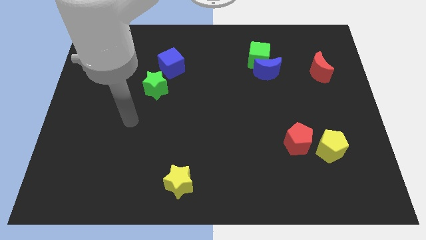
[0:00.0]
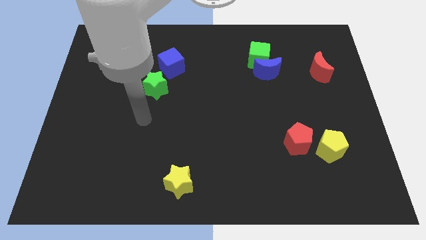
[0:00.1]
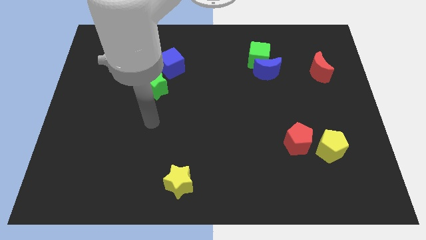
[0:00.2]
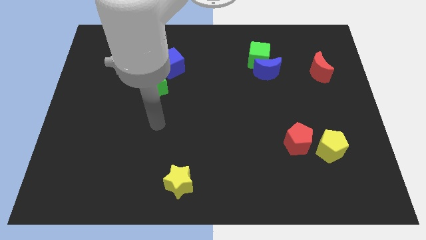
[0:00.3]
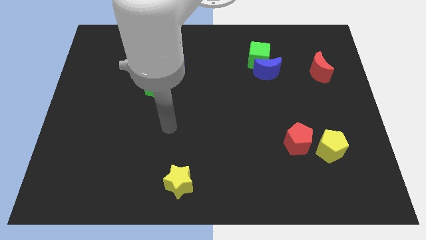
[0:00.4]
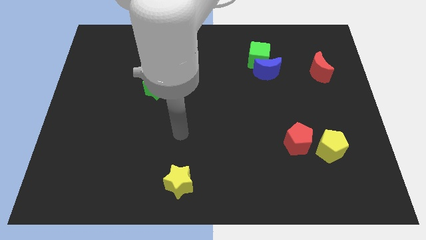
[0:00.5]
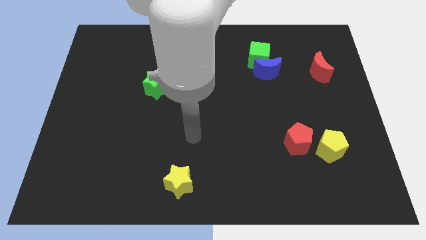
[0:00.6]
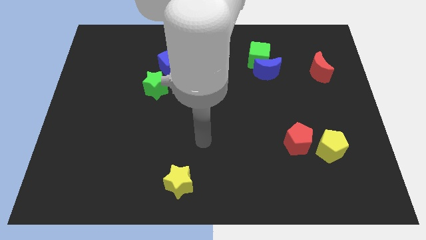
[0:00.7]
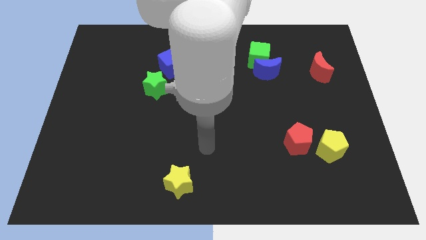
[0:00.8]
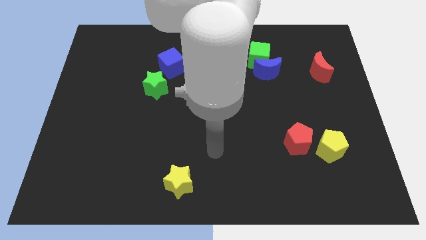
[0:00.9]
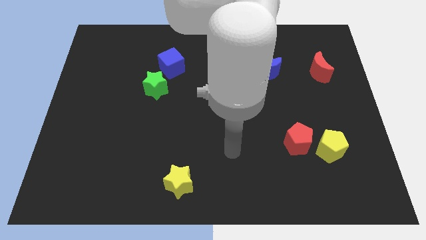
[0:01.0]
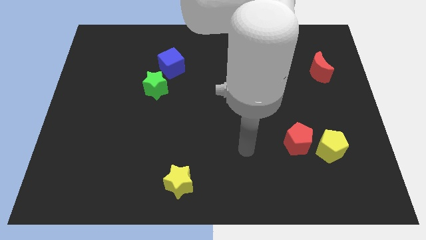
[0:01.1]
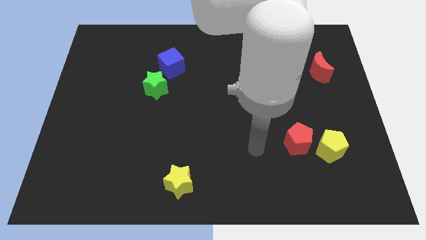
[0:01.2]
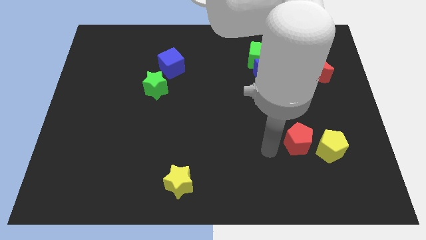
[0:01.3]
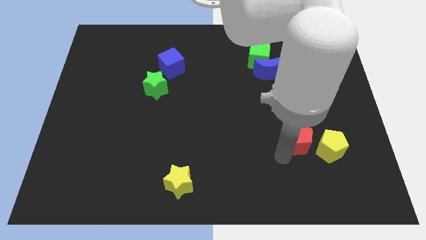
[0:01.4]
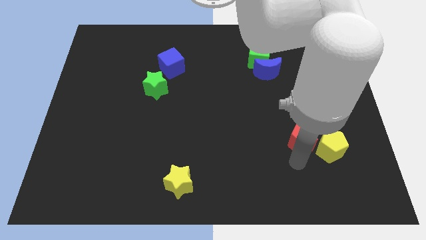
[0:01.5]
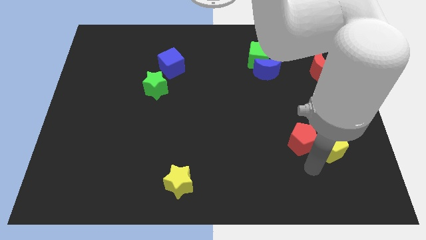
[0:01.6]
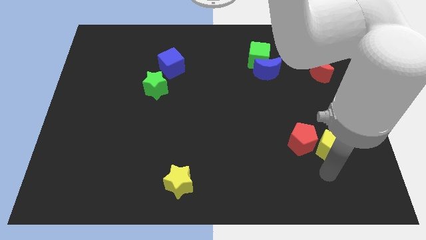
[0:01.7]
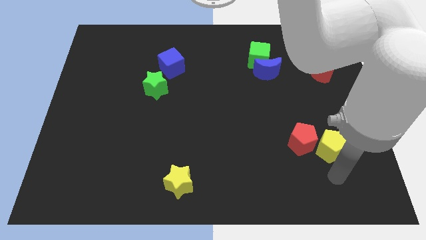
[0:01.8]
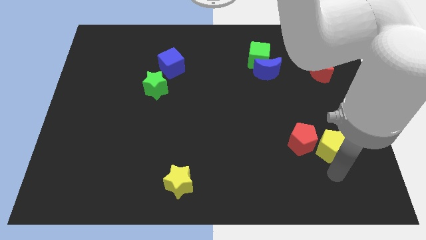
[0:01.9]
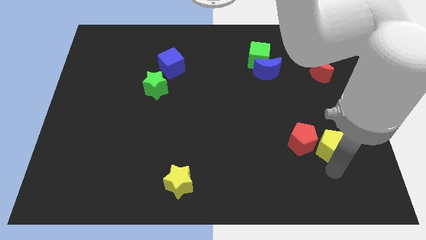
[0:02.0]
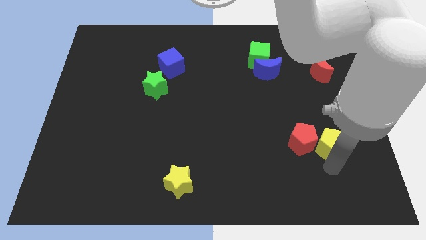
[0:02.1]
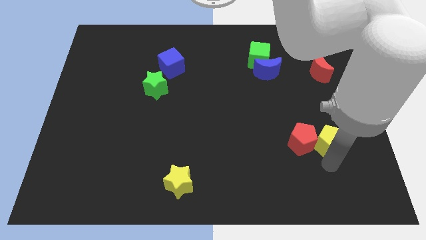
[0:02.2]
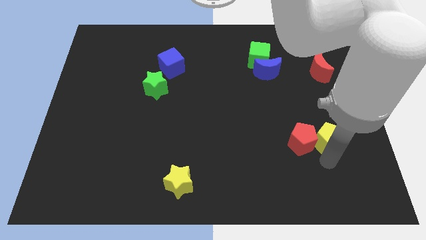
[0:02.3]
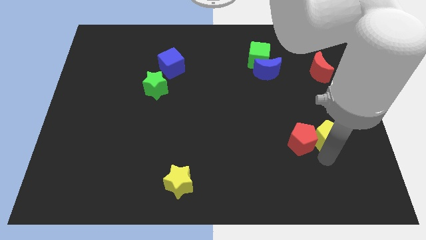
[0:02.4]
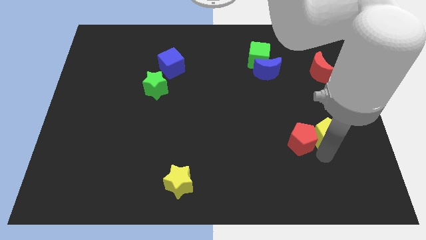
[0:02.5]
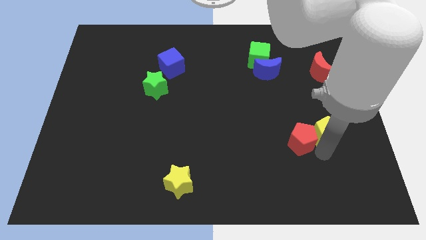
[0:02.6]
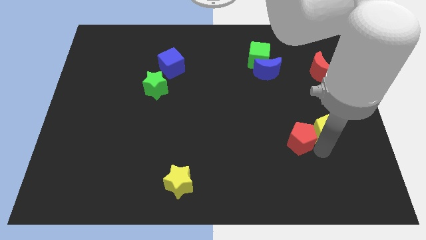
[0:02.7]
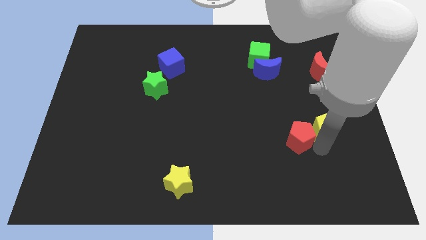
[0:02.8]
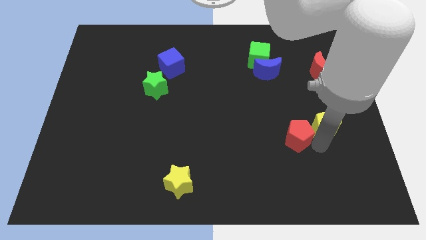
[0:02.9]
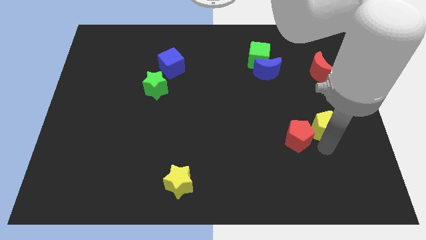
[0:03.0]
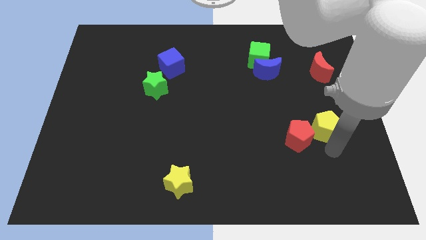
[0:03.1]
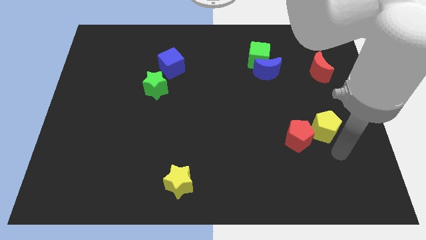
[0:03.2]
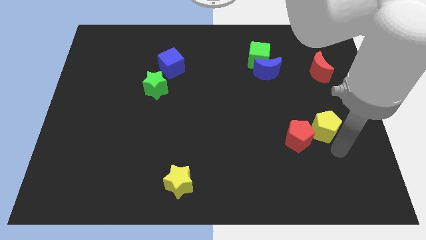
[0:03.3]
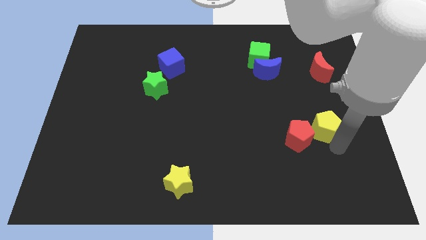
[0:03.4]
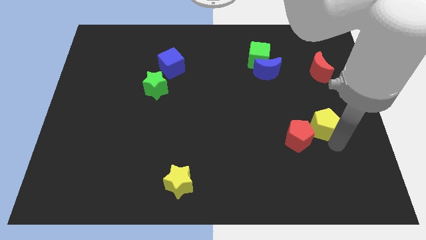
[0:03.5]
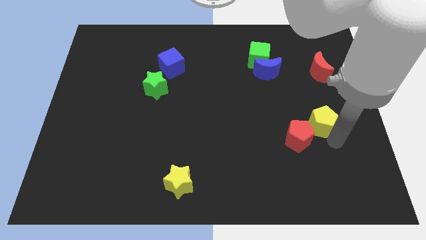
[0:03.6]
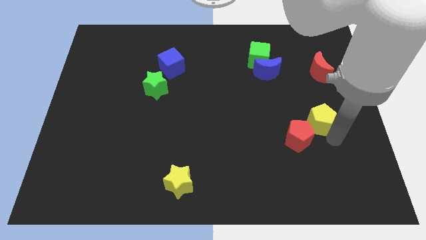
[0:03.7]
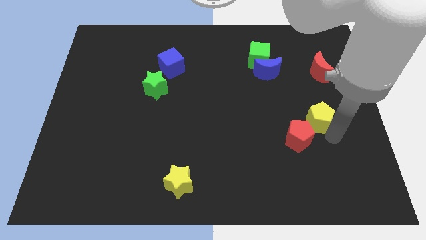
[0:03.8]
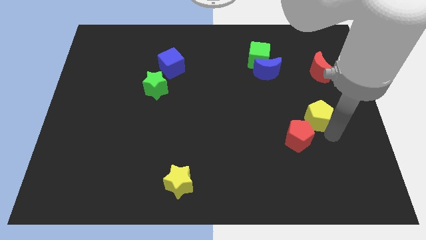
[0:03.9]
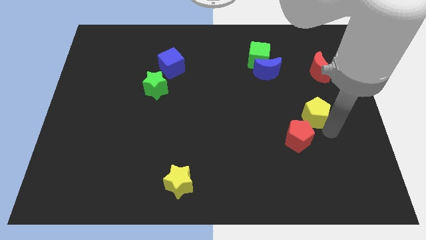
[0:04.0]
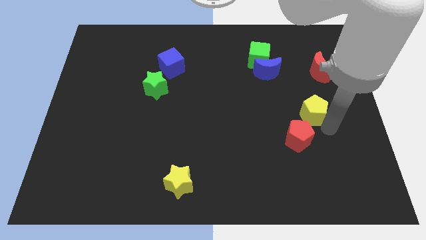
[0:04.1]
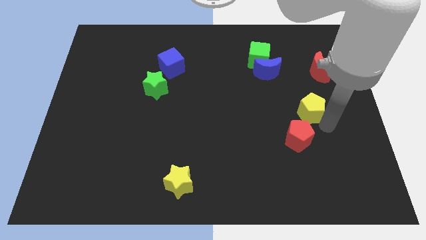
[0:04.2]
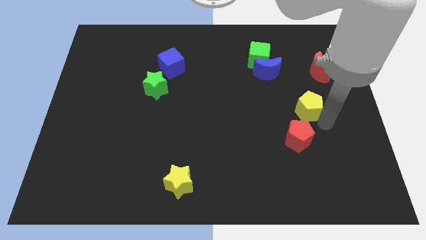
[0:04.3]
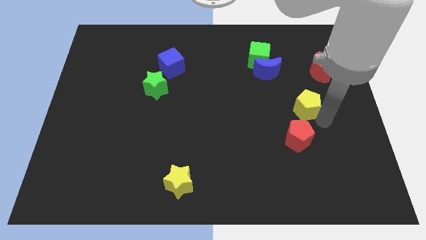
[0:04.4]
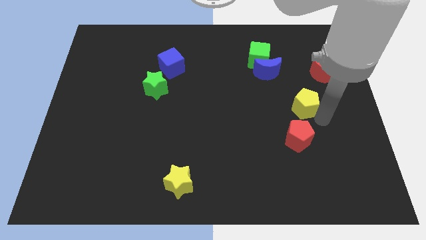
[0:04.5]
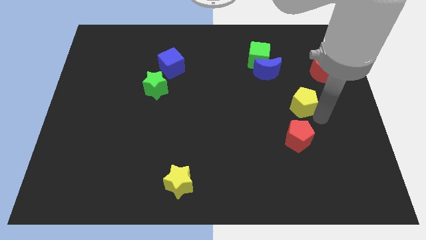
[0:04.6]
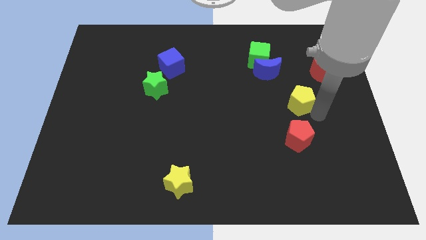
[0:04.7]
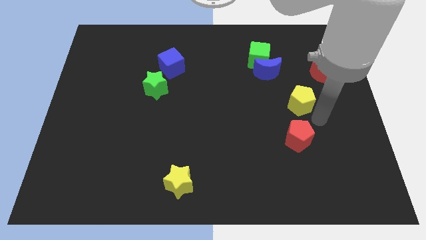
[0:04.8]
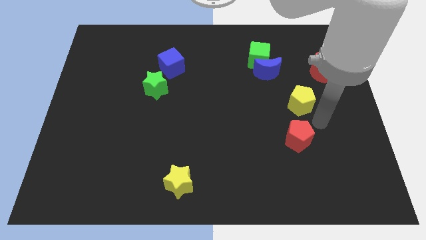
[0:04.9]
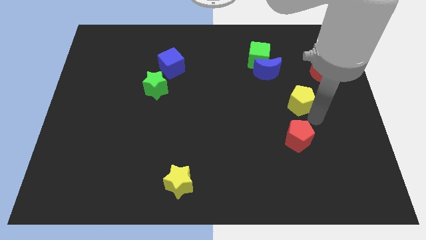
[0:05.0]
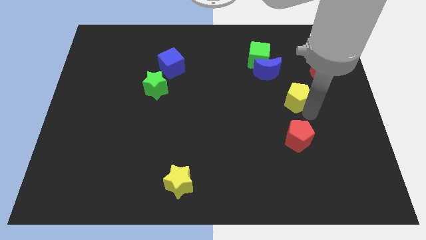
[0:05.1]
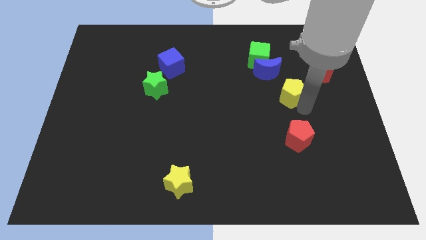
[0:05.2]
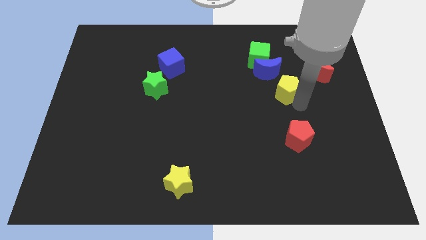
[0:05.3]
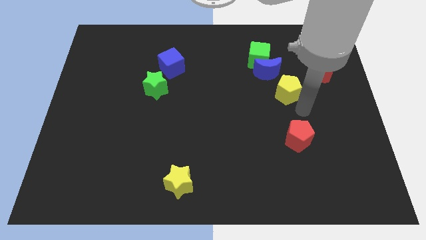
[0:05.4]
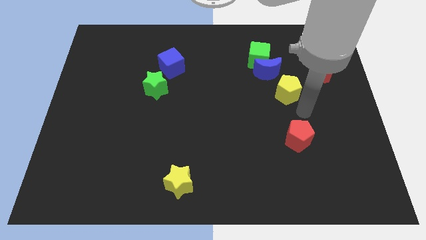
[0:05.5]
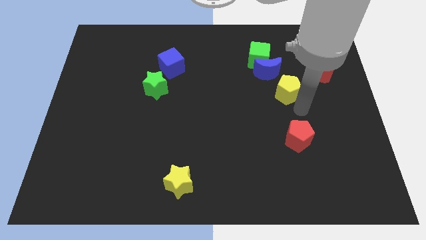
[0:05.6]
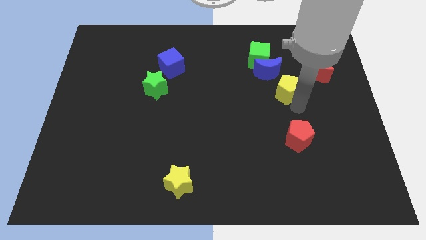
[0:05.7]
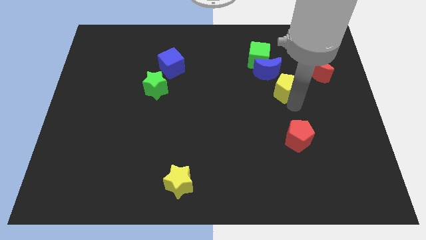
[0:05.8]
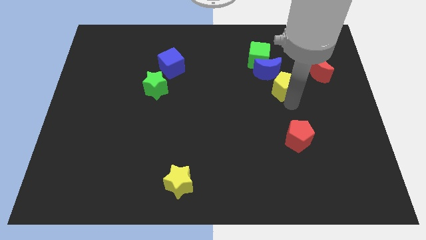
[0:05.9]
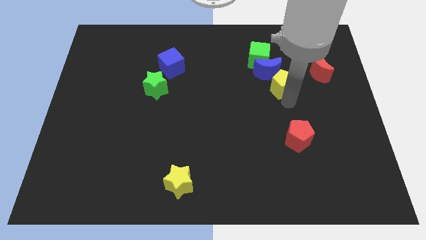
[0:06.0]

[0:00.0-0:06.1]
put the yellow pentagon towards the blue moon

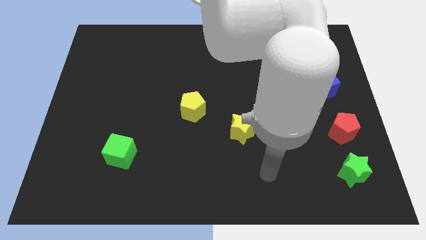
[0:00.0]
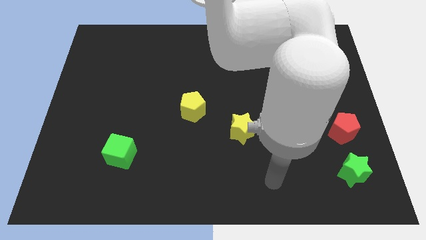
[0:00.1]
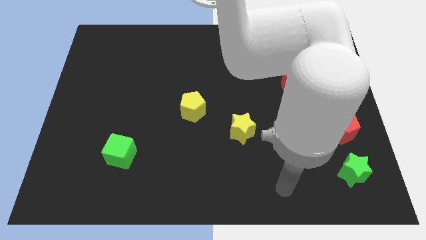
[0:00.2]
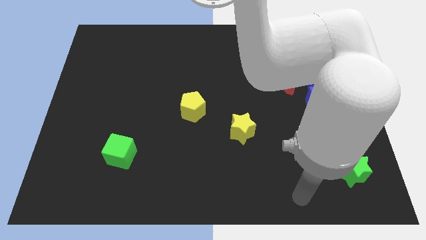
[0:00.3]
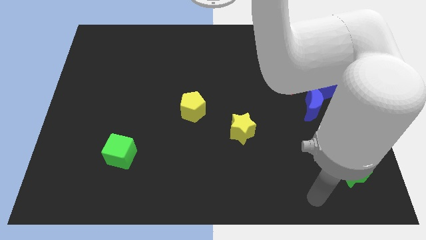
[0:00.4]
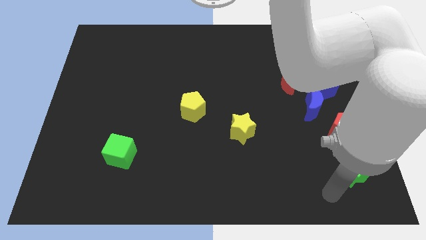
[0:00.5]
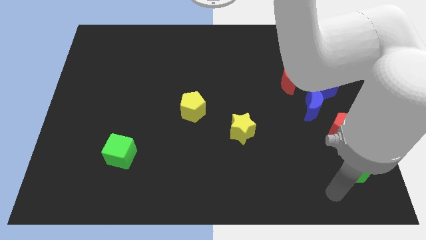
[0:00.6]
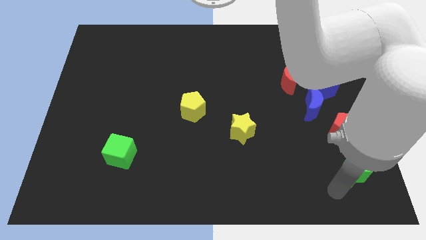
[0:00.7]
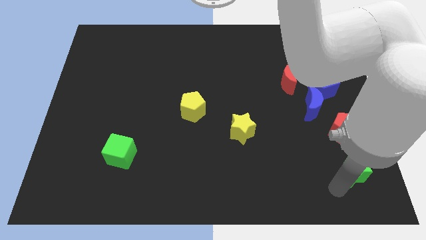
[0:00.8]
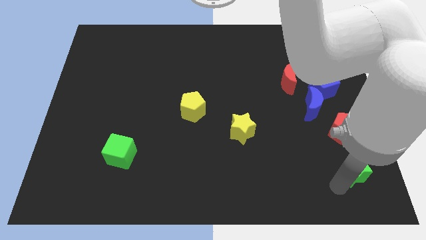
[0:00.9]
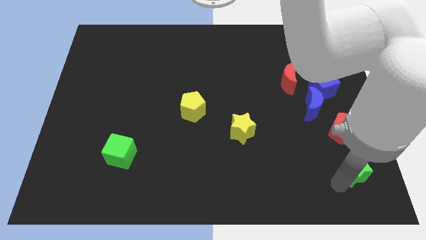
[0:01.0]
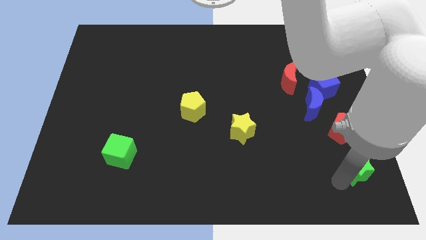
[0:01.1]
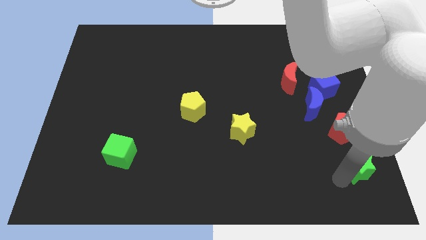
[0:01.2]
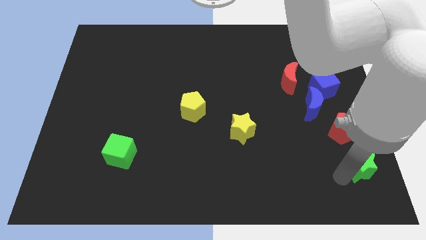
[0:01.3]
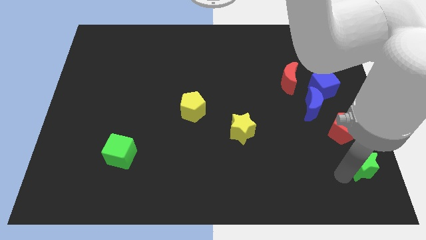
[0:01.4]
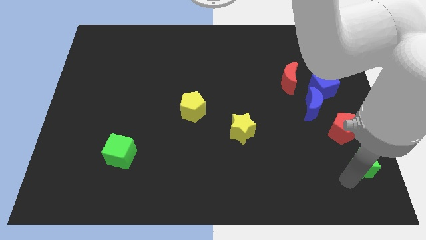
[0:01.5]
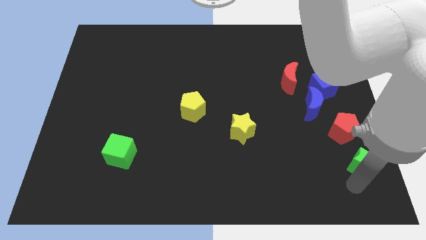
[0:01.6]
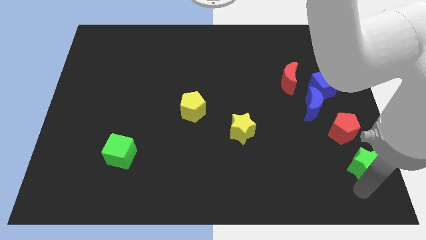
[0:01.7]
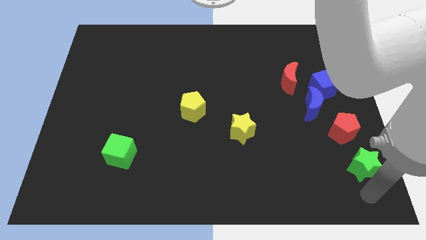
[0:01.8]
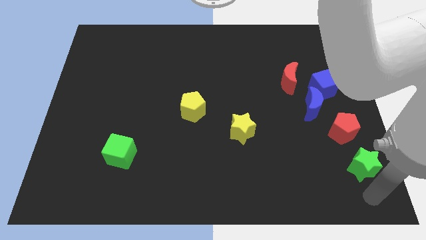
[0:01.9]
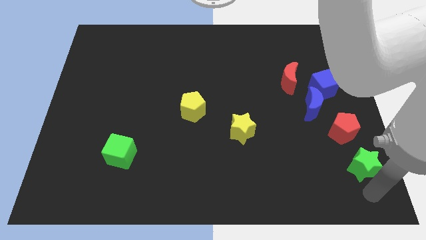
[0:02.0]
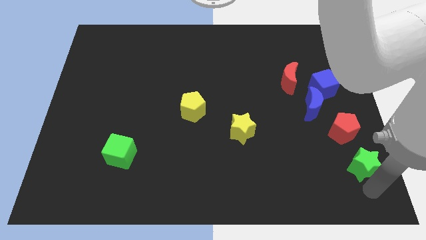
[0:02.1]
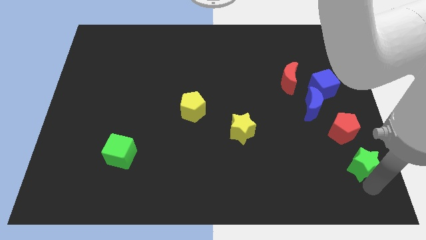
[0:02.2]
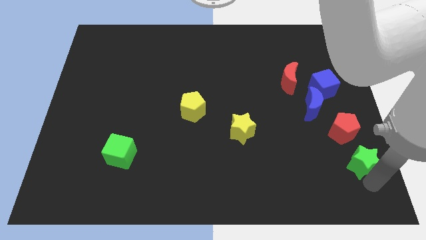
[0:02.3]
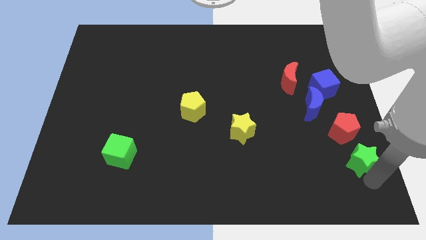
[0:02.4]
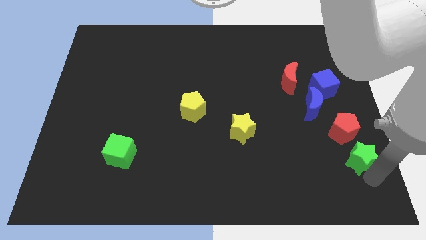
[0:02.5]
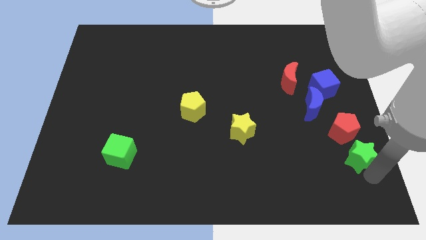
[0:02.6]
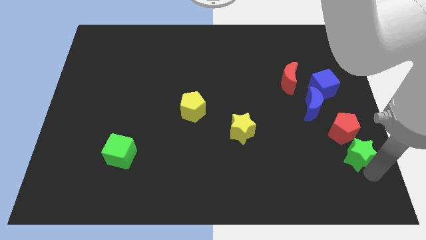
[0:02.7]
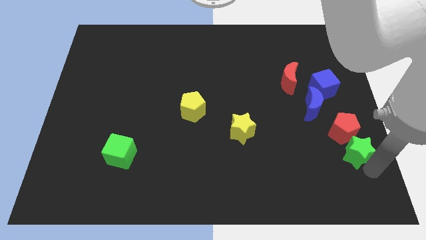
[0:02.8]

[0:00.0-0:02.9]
push the green star towards the red pentagon
